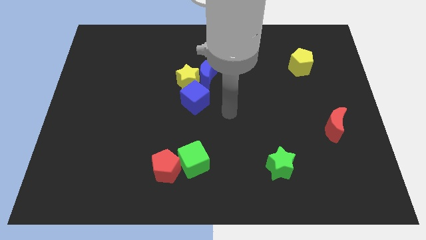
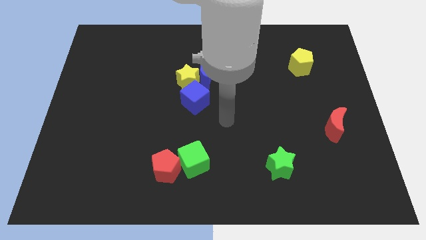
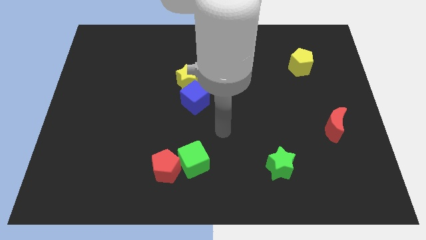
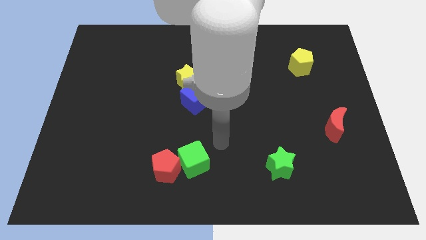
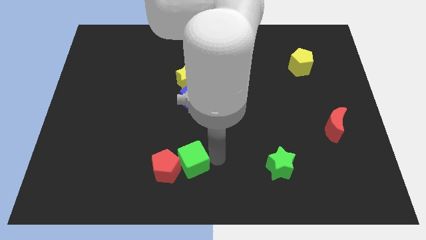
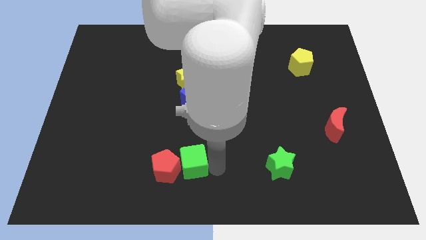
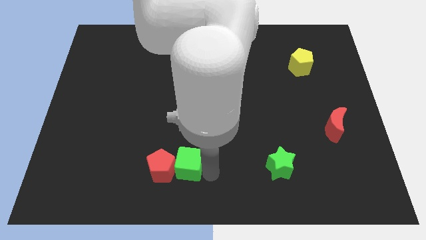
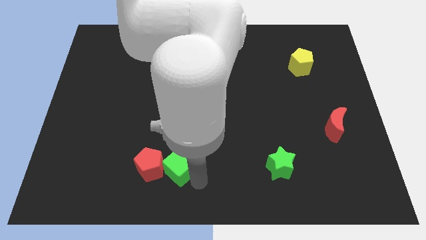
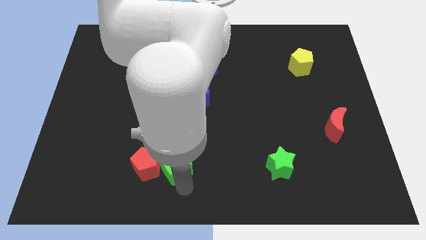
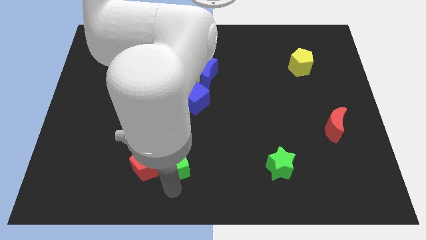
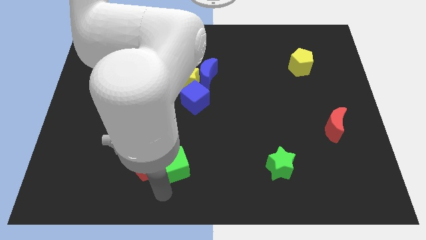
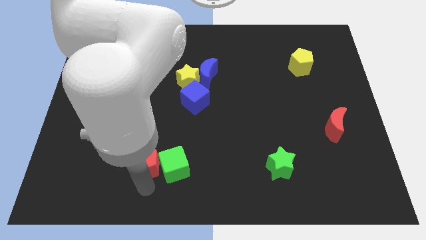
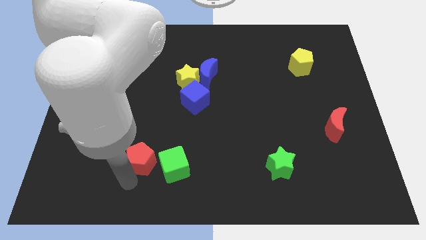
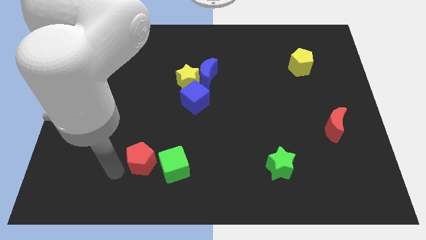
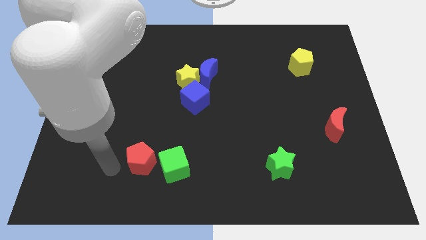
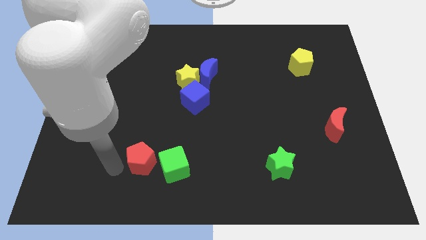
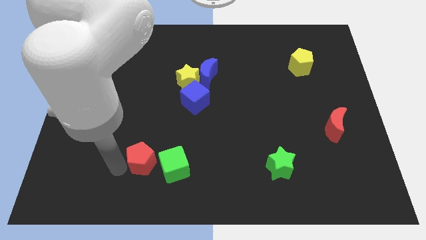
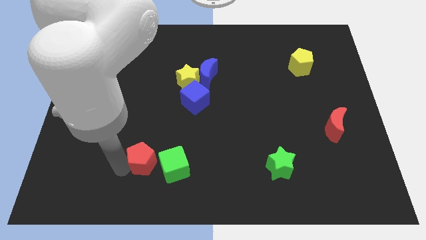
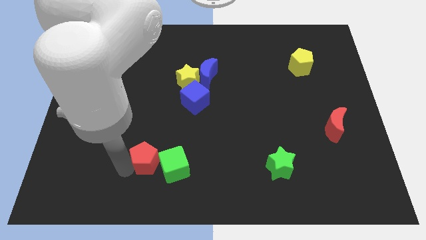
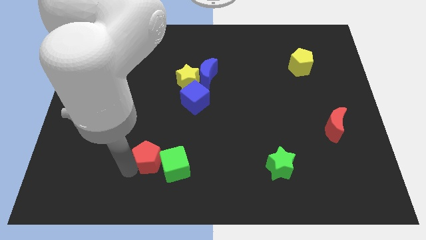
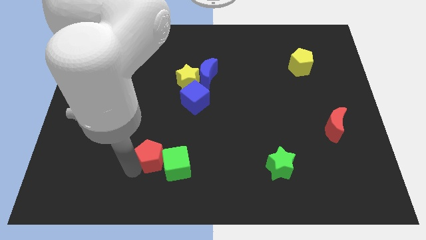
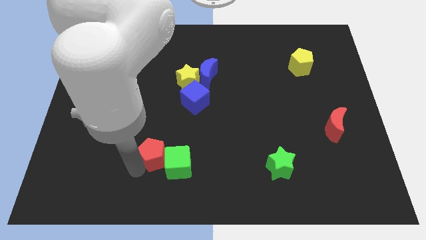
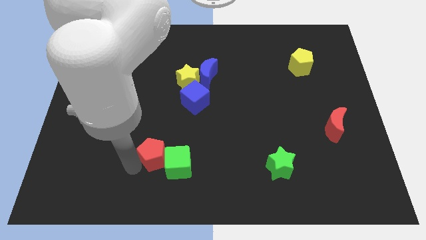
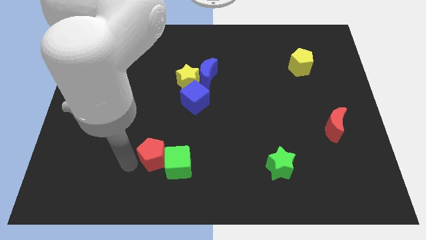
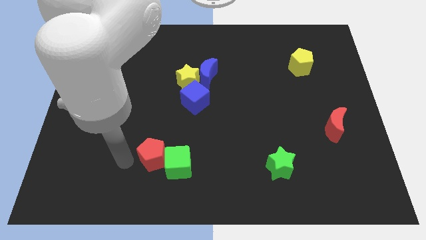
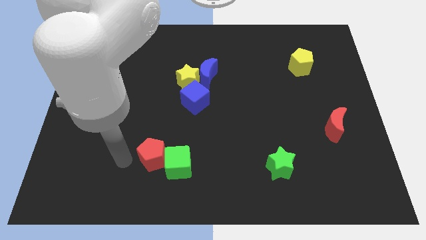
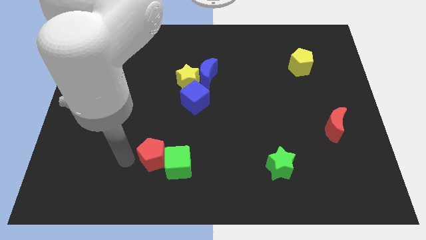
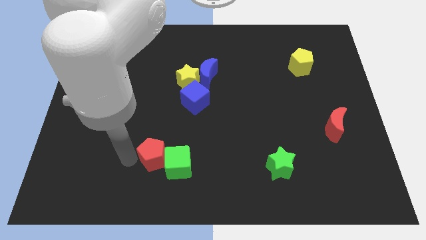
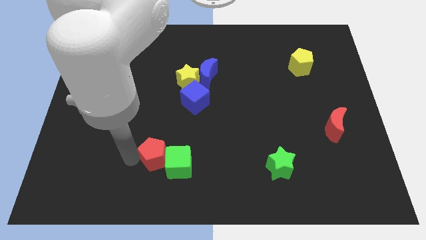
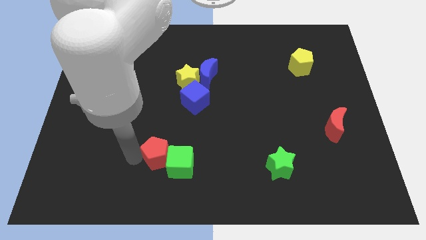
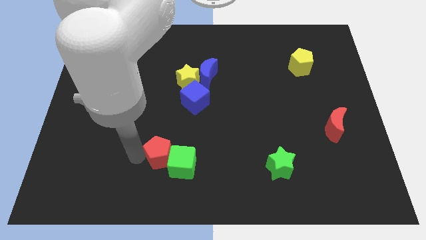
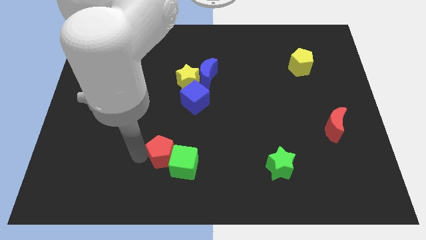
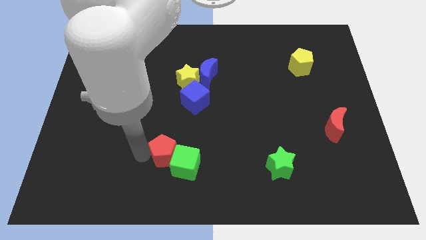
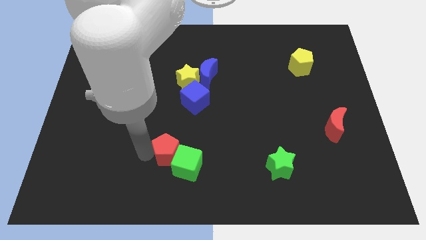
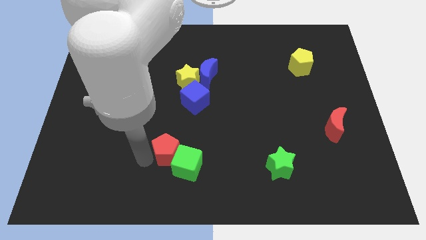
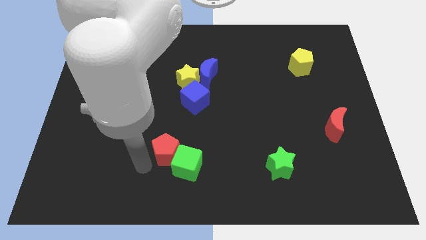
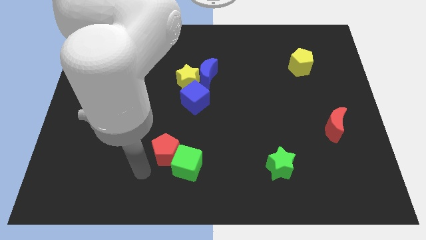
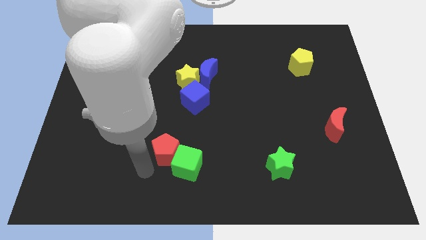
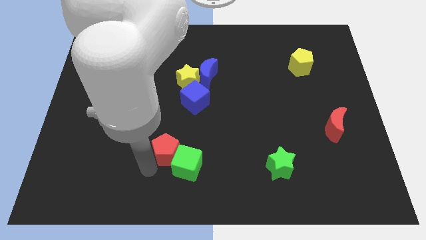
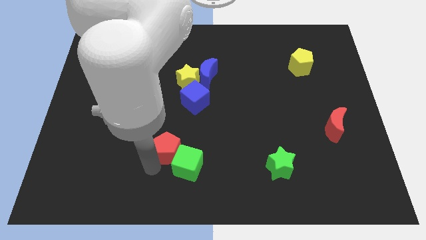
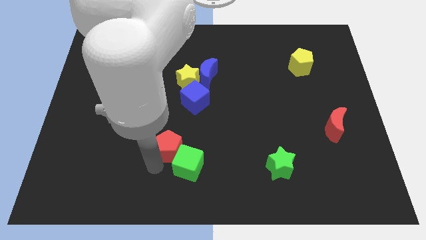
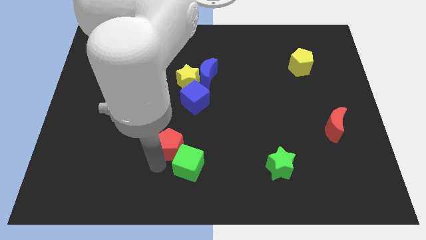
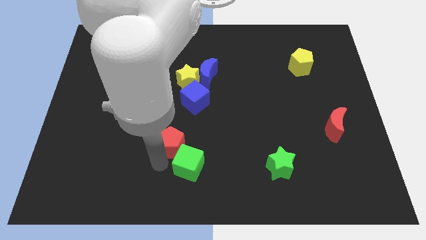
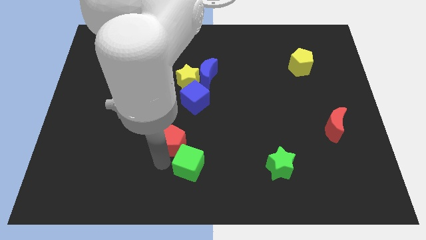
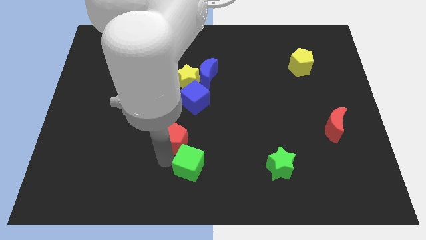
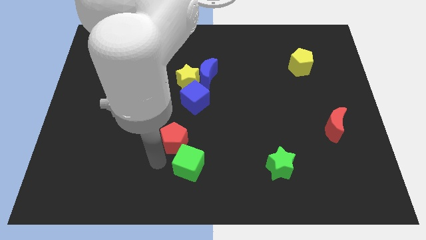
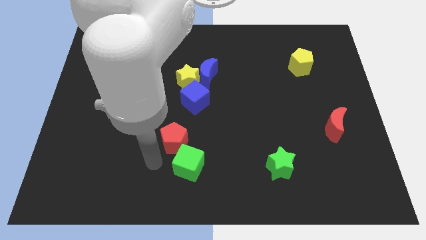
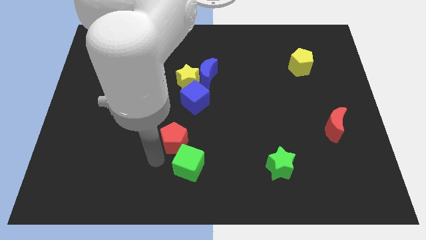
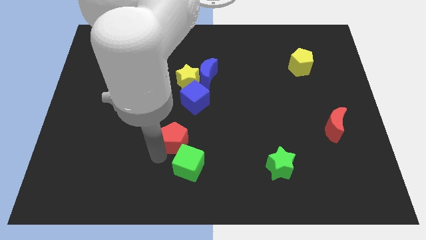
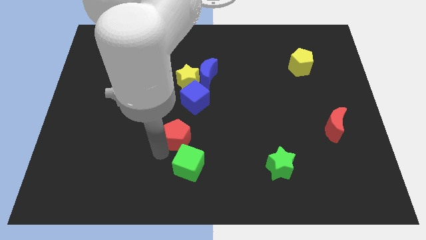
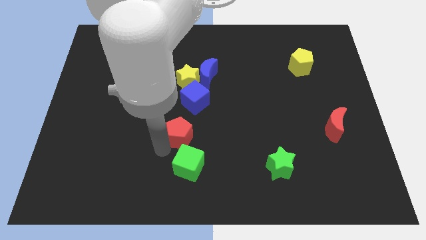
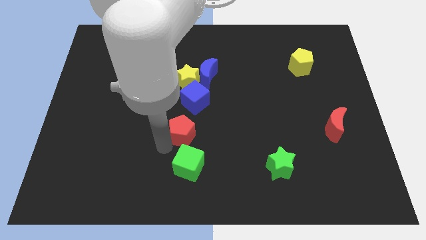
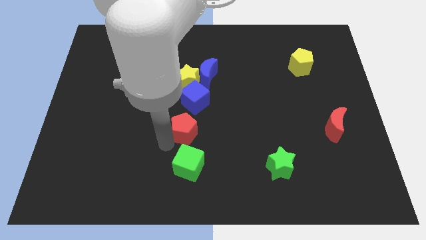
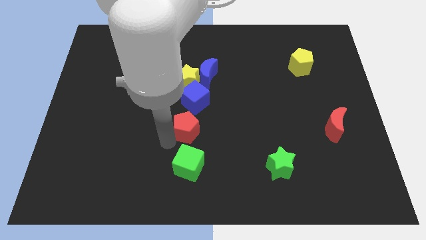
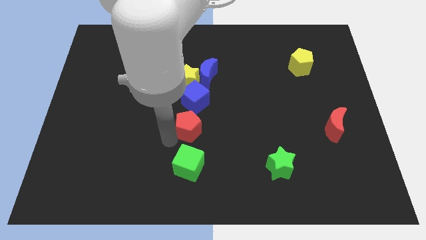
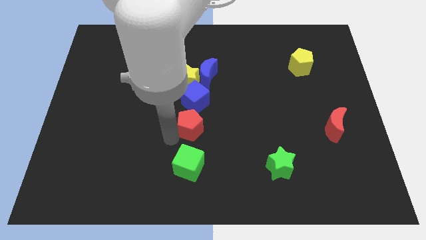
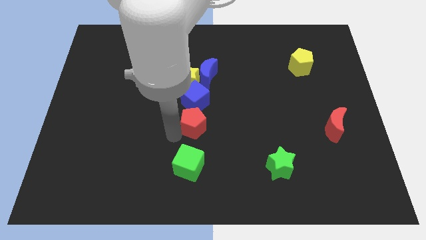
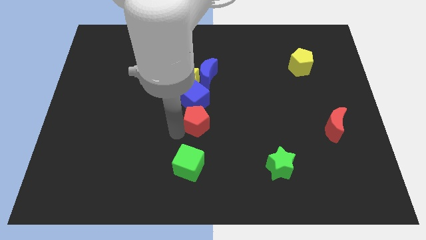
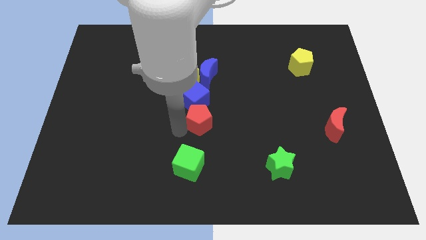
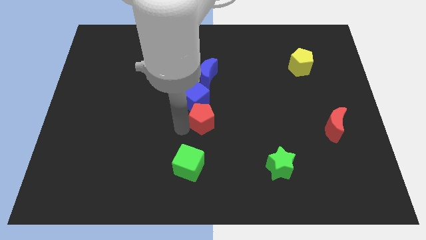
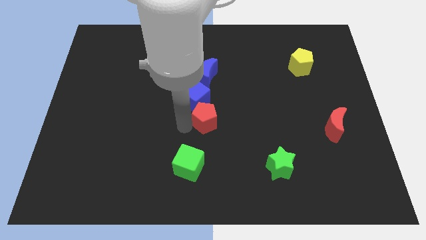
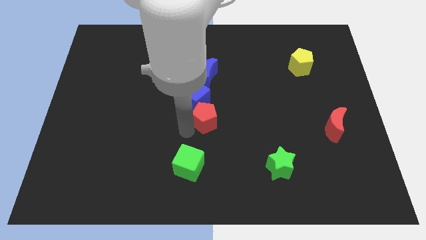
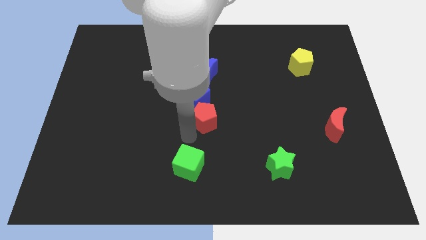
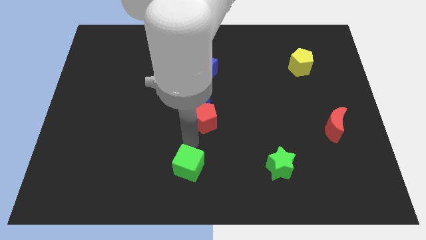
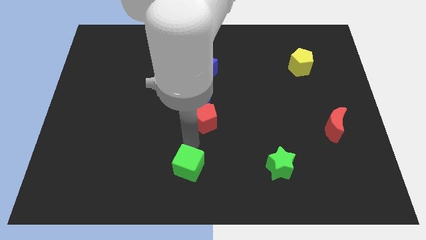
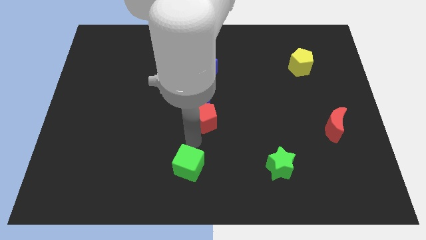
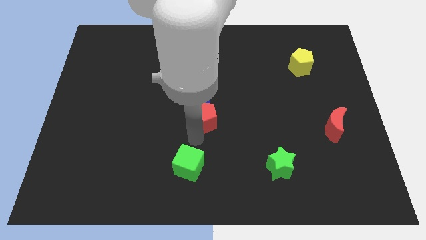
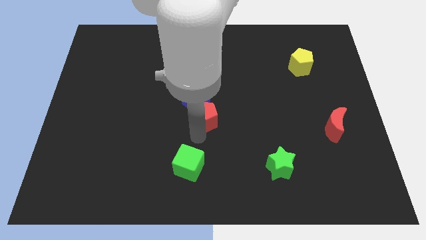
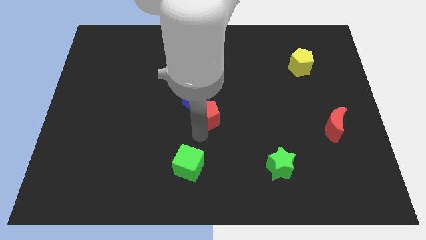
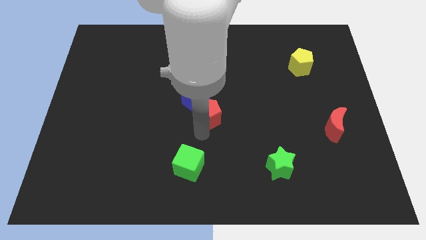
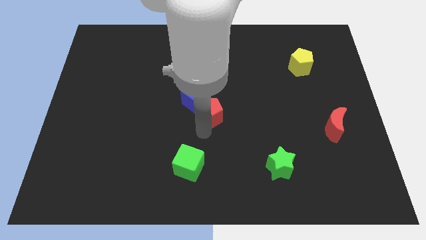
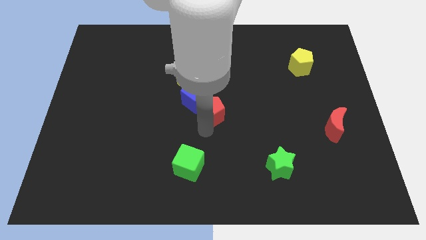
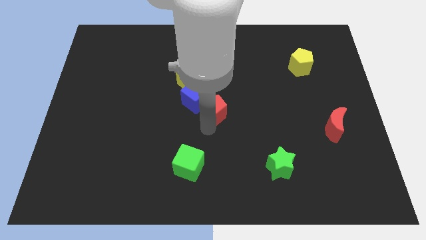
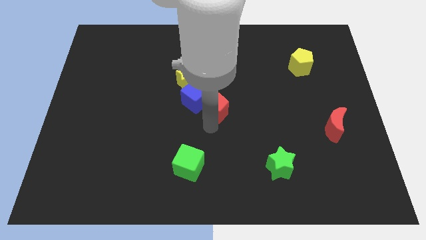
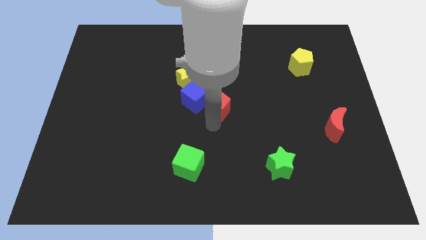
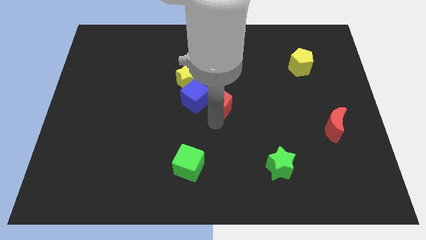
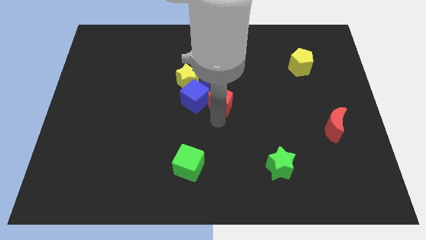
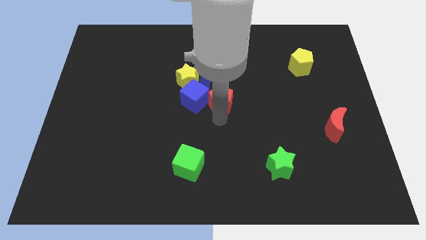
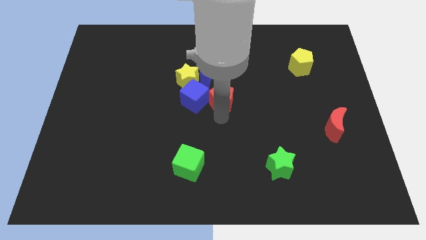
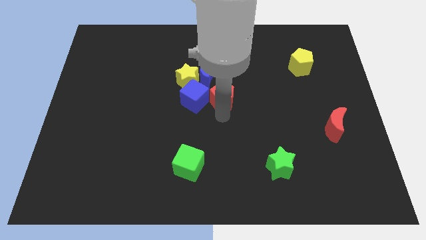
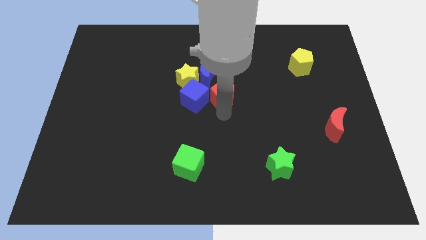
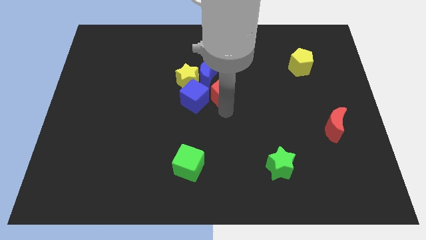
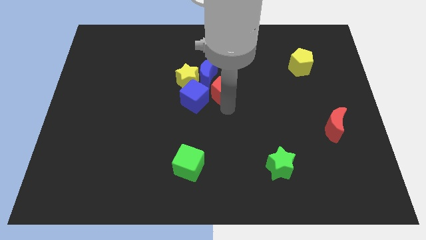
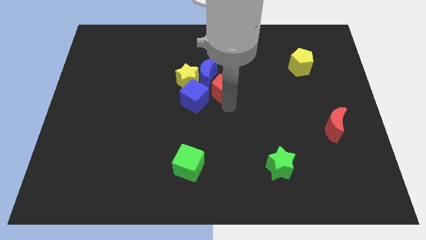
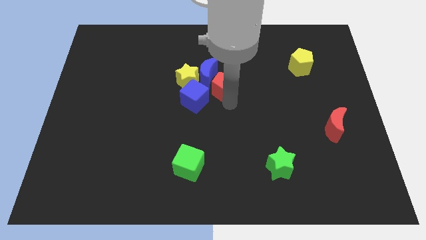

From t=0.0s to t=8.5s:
put the red pentagon towards the blue moon
